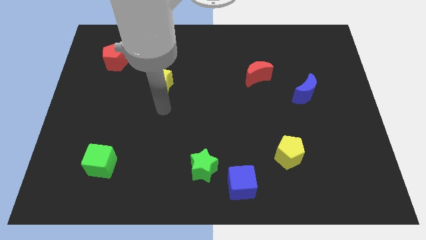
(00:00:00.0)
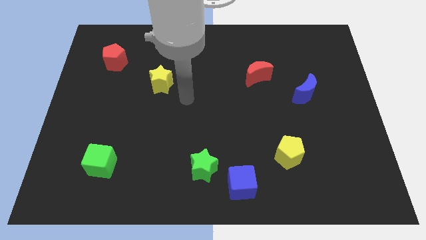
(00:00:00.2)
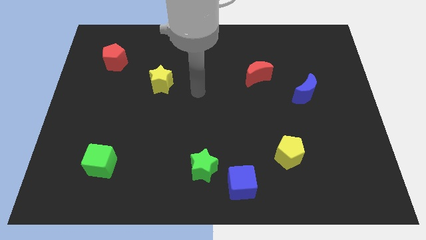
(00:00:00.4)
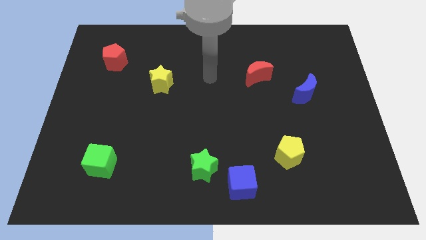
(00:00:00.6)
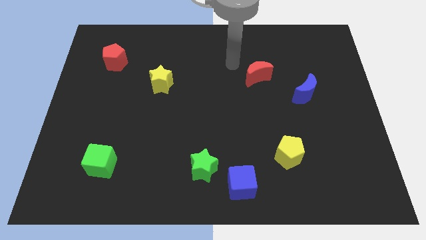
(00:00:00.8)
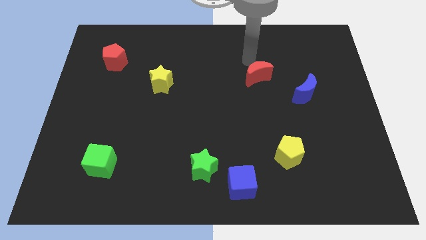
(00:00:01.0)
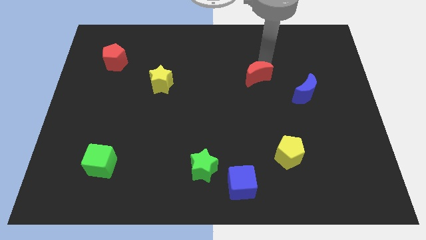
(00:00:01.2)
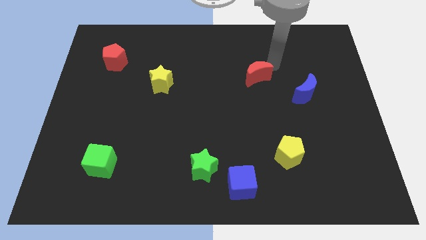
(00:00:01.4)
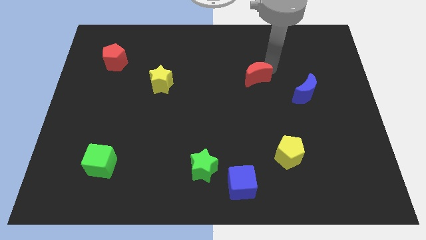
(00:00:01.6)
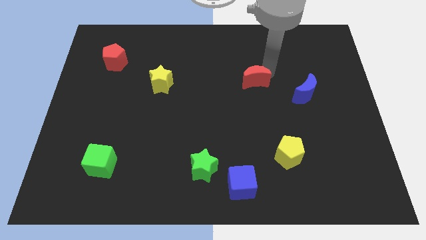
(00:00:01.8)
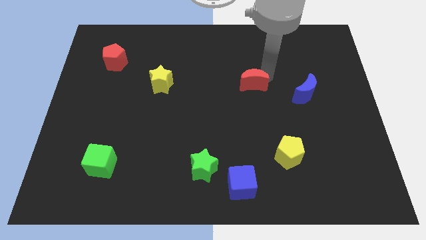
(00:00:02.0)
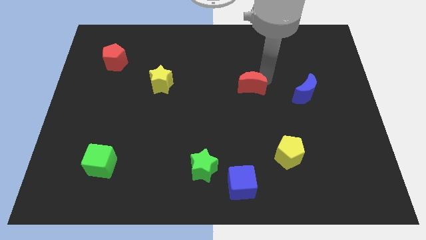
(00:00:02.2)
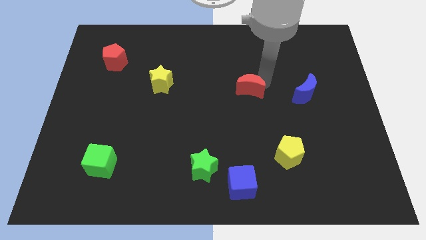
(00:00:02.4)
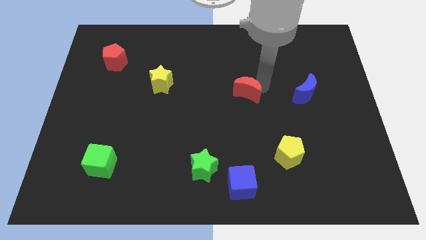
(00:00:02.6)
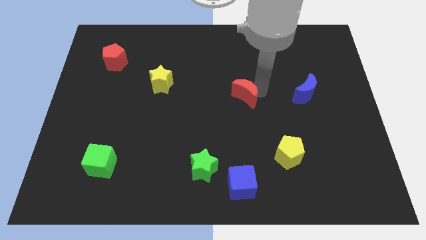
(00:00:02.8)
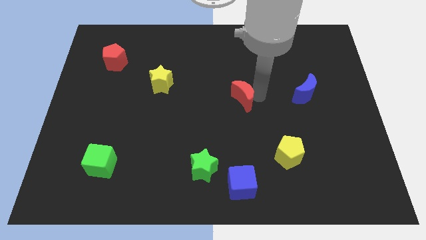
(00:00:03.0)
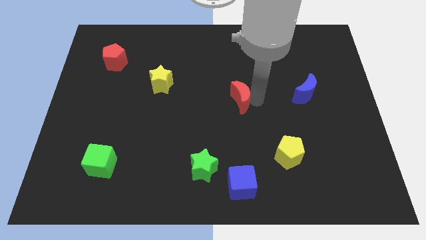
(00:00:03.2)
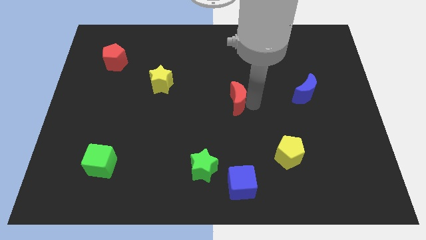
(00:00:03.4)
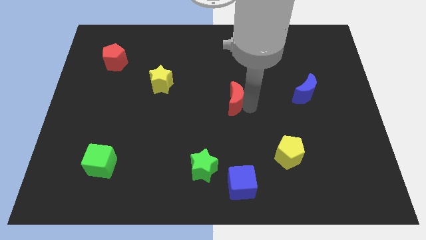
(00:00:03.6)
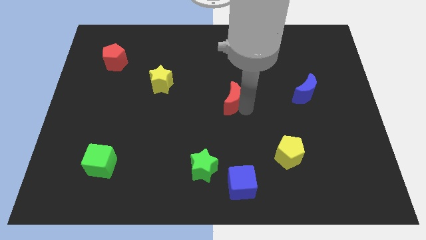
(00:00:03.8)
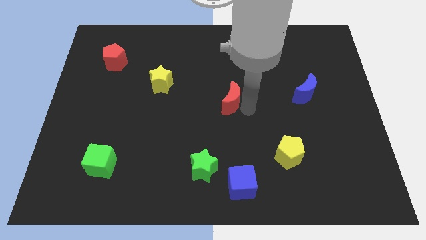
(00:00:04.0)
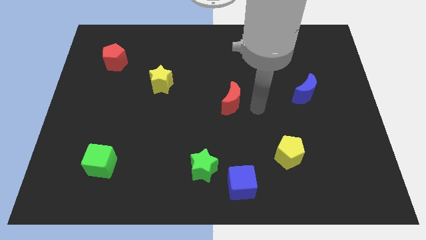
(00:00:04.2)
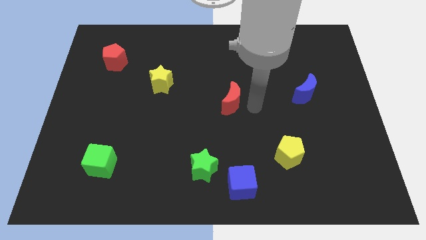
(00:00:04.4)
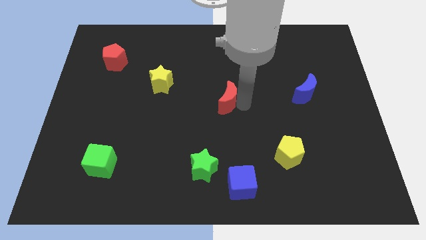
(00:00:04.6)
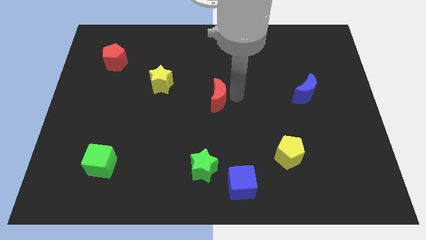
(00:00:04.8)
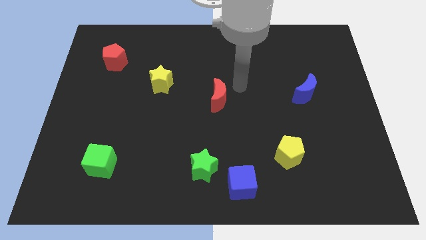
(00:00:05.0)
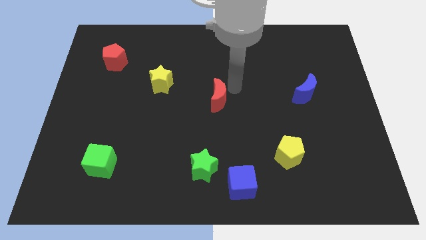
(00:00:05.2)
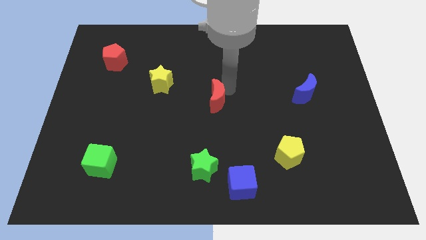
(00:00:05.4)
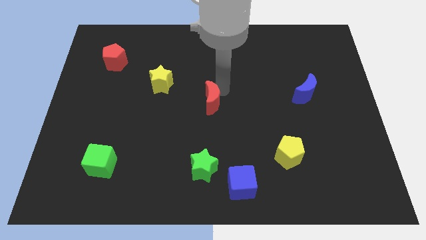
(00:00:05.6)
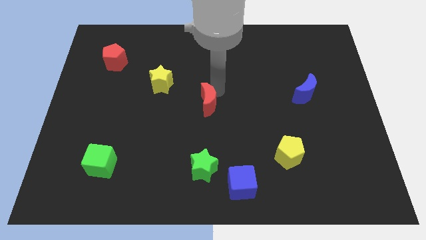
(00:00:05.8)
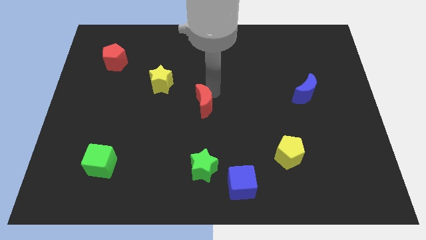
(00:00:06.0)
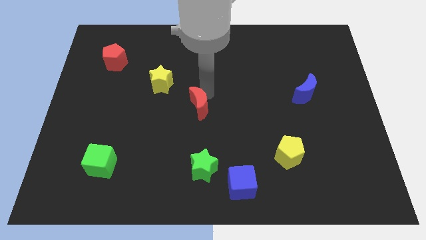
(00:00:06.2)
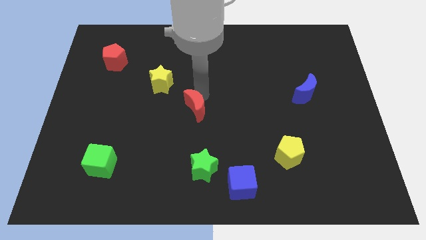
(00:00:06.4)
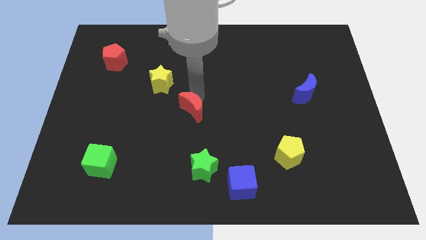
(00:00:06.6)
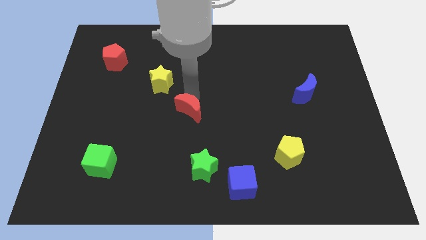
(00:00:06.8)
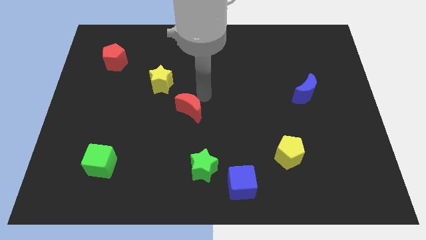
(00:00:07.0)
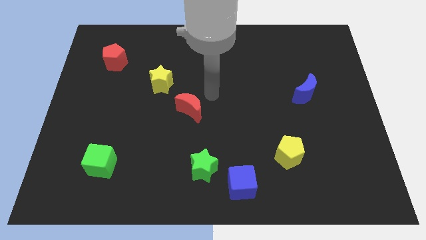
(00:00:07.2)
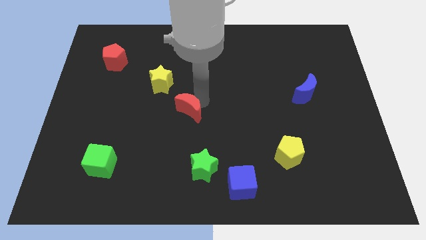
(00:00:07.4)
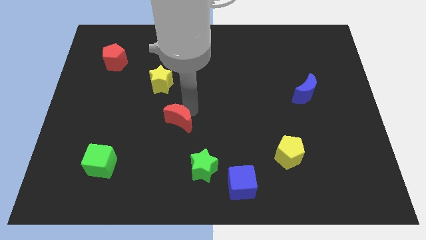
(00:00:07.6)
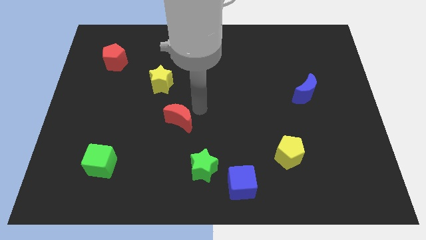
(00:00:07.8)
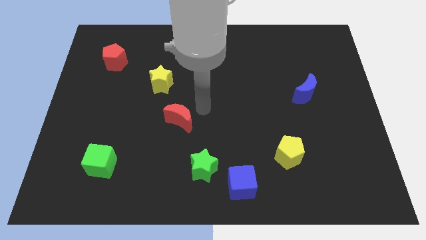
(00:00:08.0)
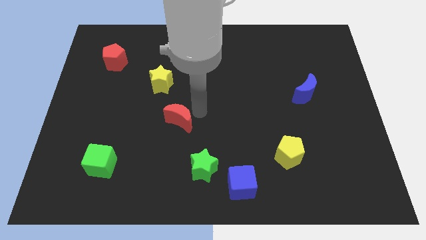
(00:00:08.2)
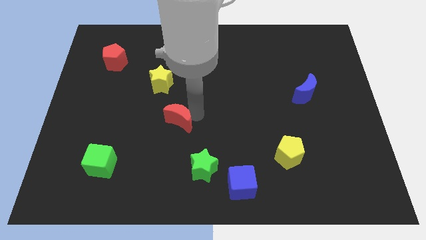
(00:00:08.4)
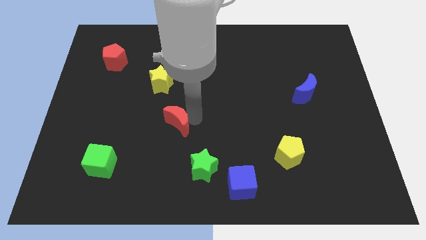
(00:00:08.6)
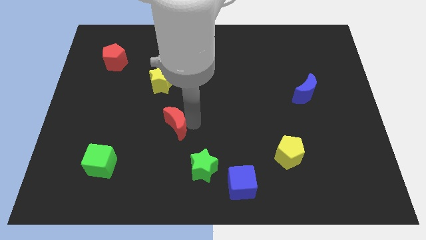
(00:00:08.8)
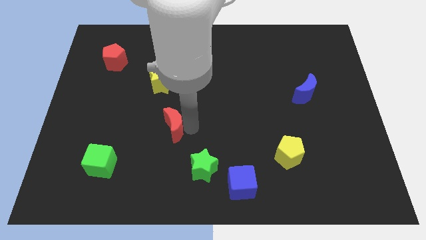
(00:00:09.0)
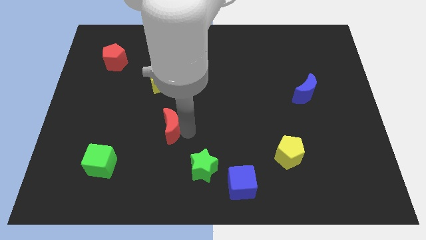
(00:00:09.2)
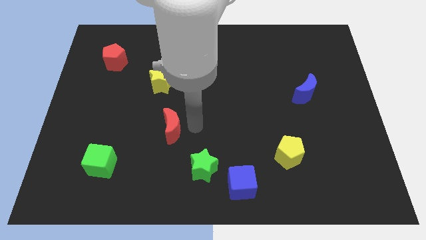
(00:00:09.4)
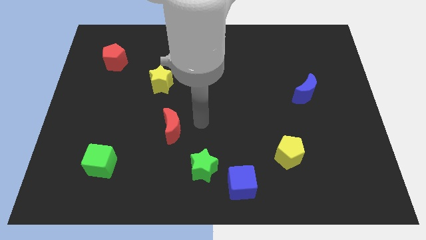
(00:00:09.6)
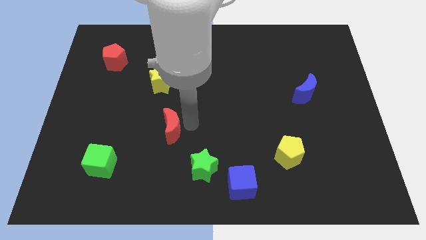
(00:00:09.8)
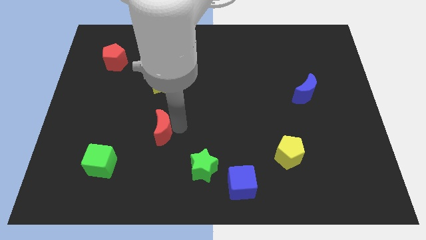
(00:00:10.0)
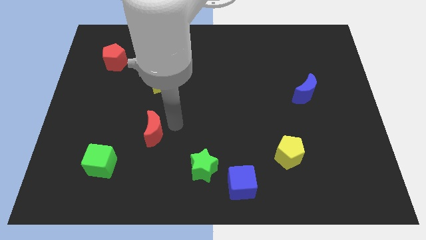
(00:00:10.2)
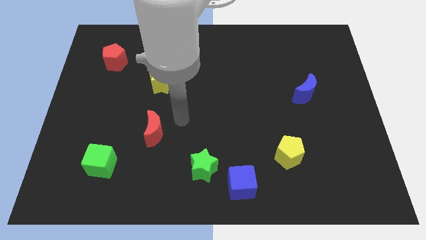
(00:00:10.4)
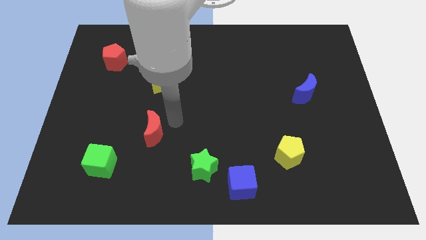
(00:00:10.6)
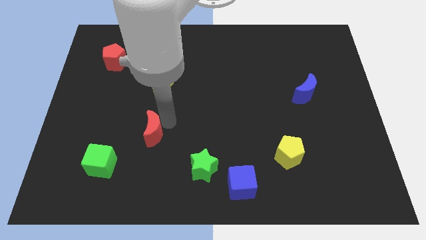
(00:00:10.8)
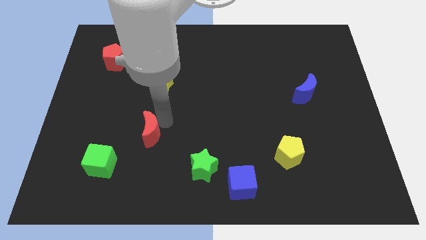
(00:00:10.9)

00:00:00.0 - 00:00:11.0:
move the red moon diagonally up and to the right of the green cube

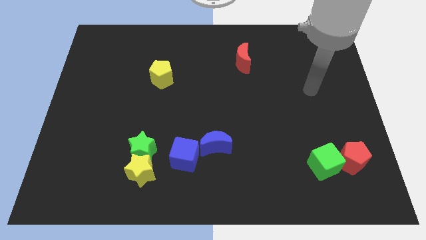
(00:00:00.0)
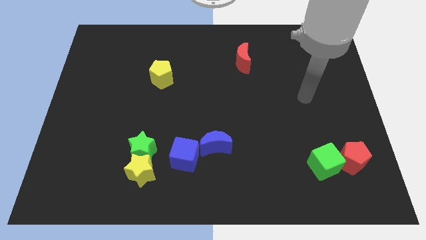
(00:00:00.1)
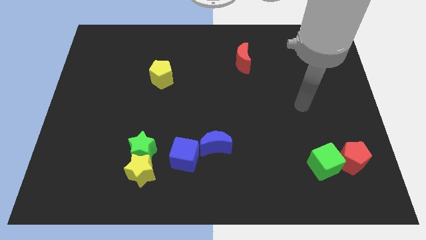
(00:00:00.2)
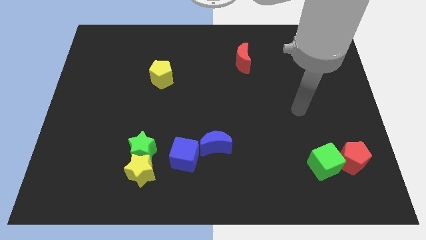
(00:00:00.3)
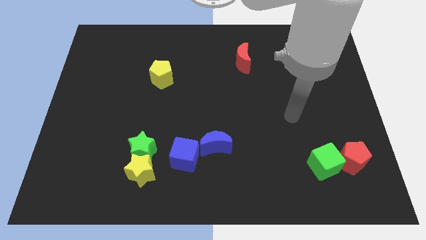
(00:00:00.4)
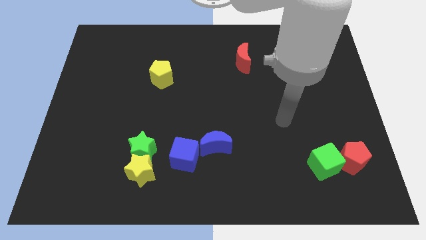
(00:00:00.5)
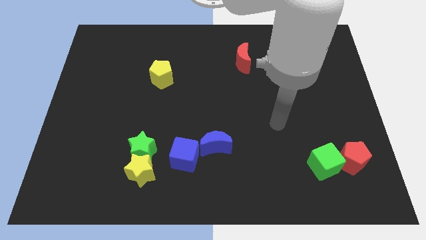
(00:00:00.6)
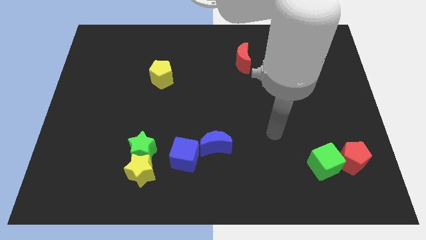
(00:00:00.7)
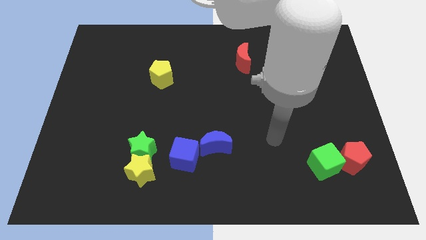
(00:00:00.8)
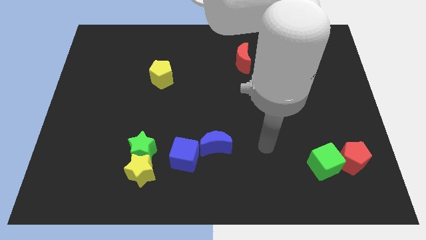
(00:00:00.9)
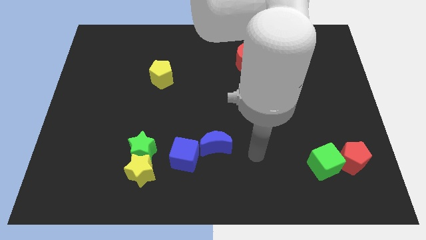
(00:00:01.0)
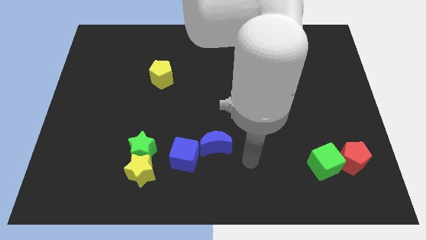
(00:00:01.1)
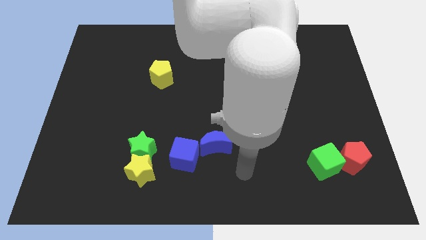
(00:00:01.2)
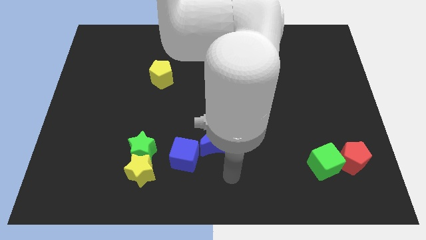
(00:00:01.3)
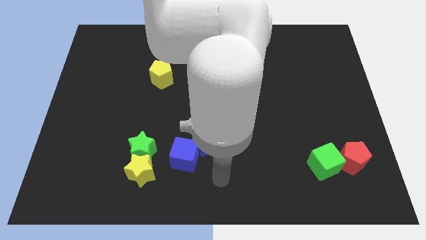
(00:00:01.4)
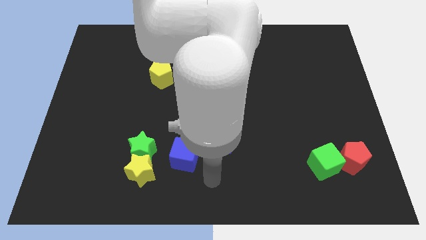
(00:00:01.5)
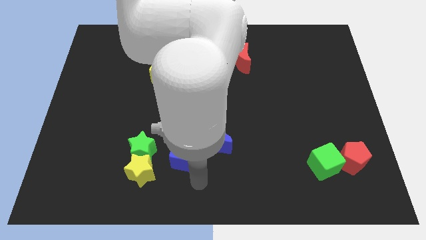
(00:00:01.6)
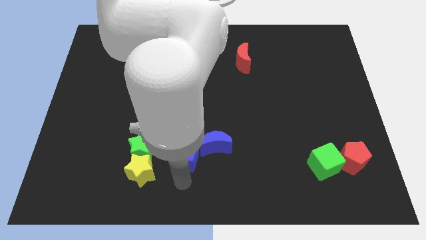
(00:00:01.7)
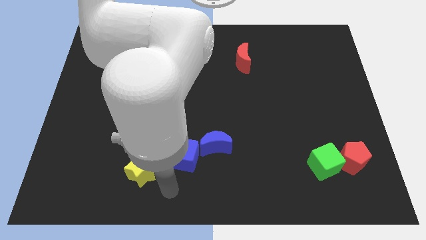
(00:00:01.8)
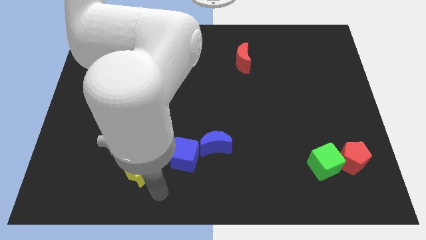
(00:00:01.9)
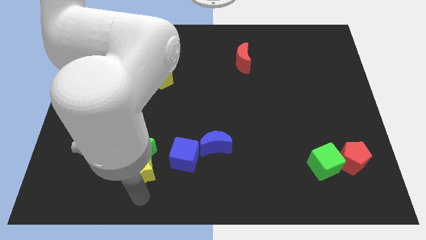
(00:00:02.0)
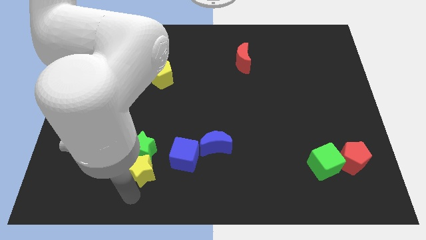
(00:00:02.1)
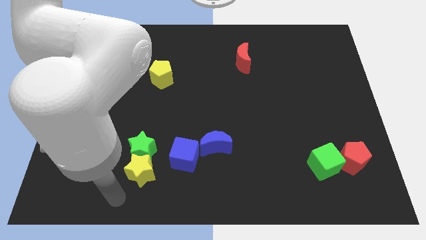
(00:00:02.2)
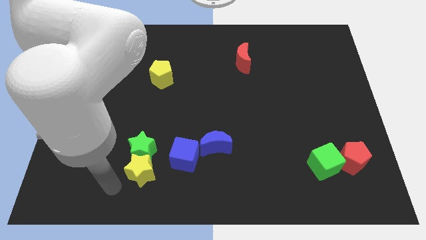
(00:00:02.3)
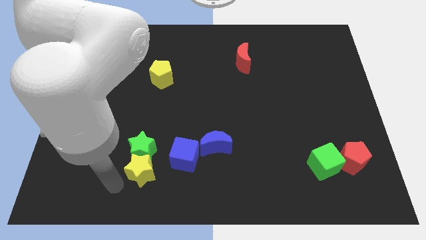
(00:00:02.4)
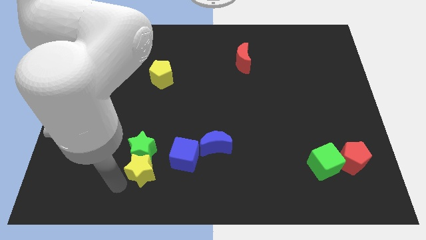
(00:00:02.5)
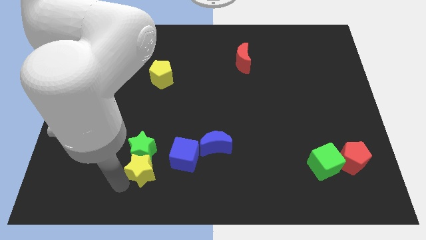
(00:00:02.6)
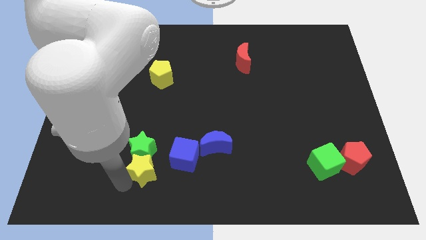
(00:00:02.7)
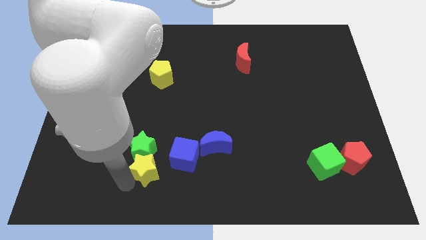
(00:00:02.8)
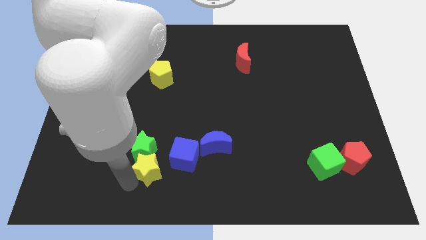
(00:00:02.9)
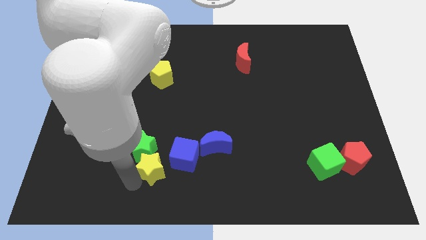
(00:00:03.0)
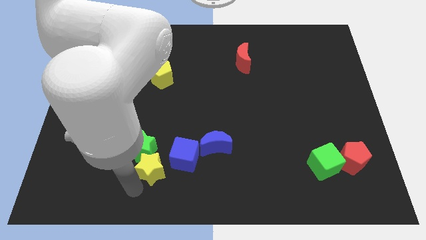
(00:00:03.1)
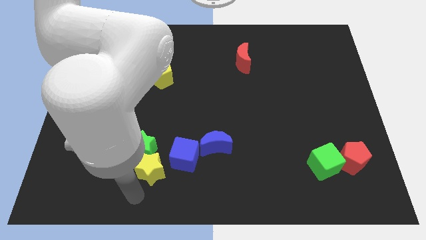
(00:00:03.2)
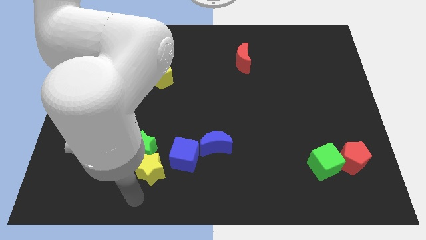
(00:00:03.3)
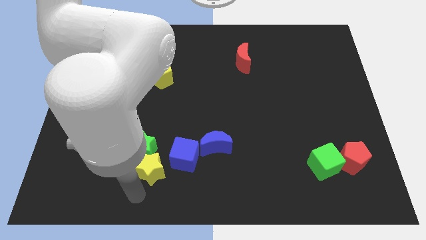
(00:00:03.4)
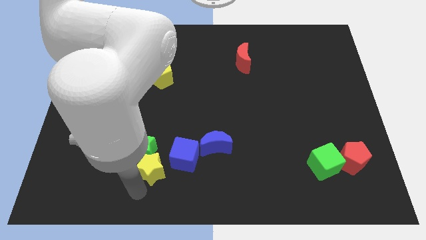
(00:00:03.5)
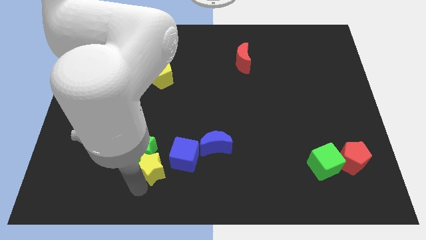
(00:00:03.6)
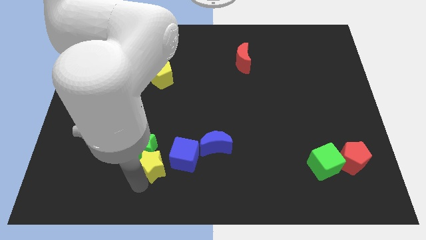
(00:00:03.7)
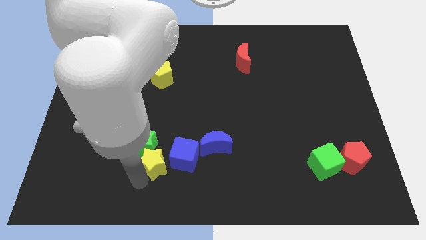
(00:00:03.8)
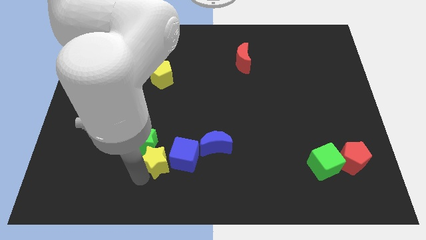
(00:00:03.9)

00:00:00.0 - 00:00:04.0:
move the yellow star just left of the blue moon
